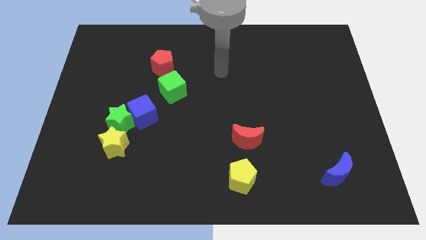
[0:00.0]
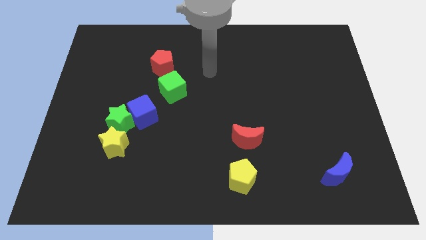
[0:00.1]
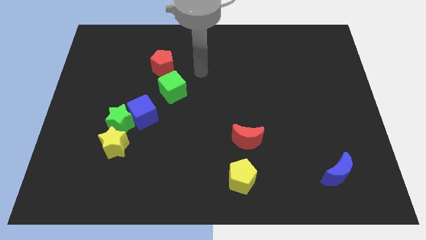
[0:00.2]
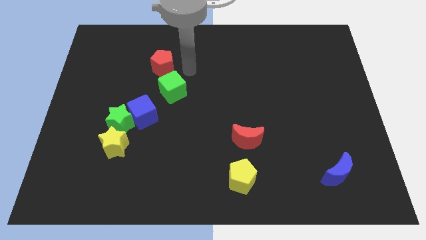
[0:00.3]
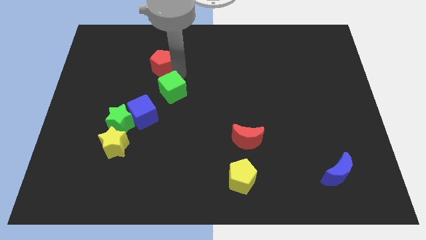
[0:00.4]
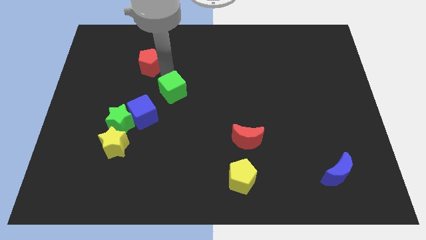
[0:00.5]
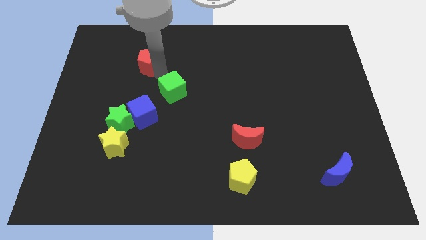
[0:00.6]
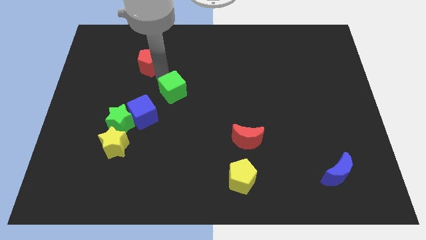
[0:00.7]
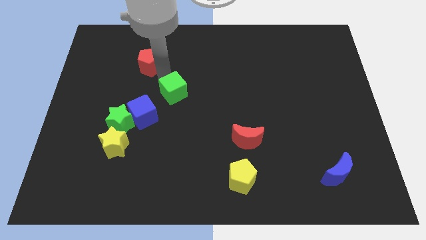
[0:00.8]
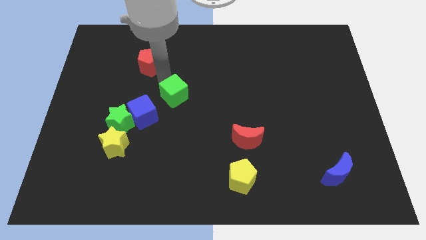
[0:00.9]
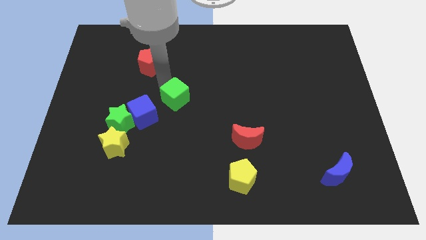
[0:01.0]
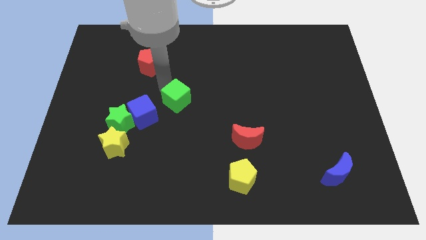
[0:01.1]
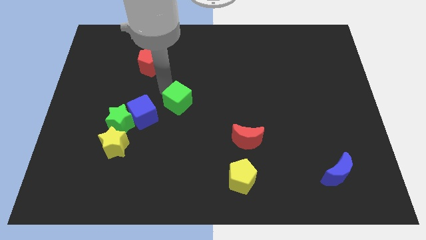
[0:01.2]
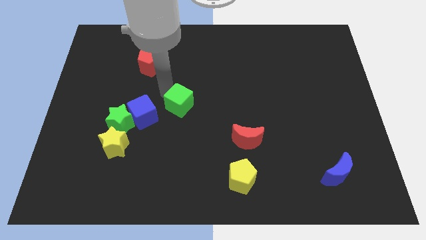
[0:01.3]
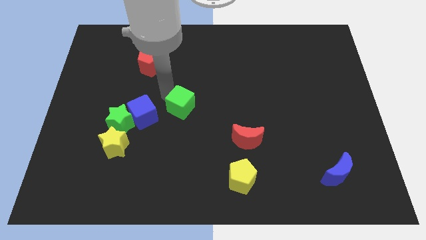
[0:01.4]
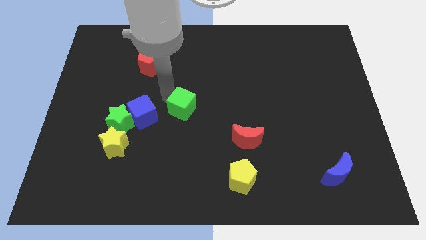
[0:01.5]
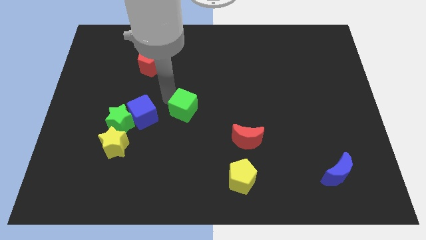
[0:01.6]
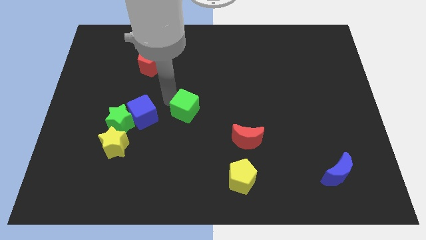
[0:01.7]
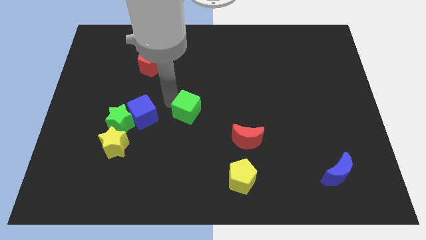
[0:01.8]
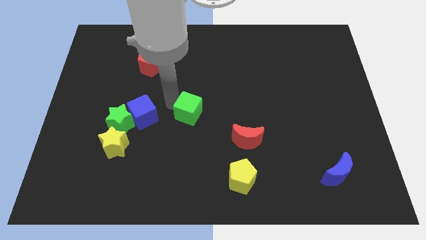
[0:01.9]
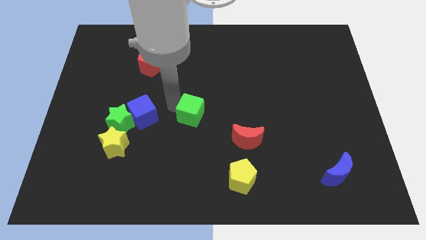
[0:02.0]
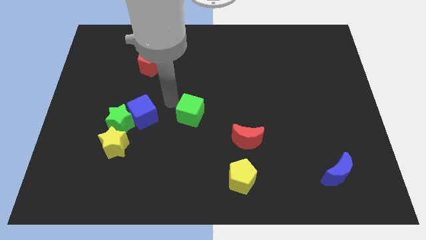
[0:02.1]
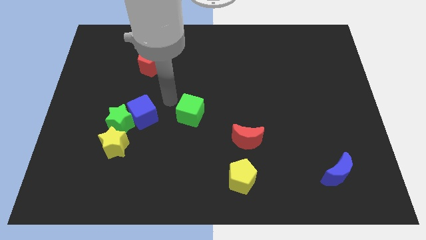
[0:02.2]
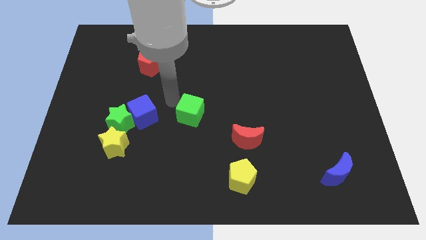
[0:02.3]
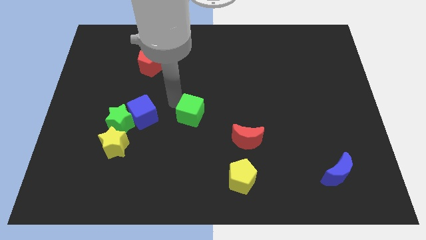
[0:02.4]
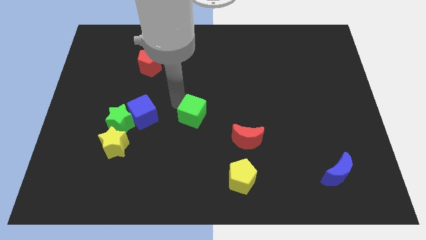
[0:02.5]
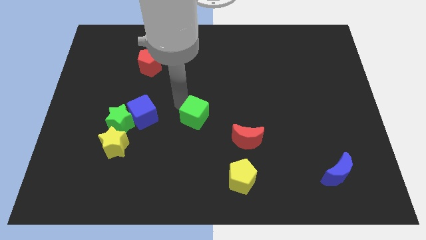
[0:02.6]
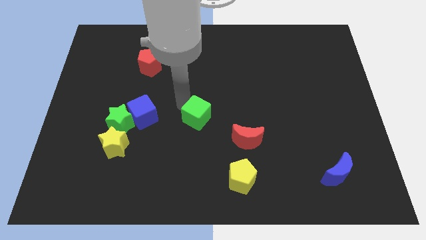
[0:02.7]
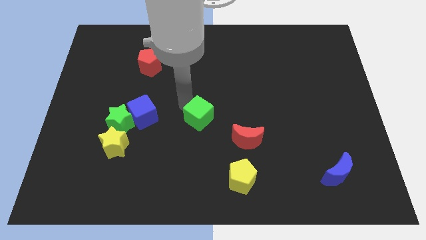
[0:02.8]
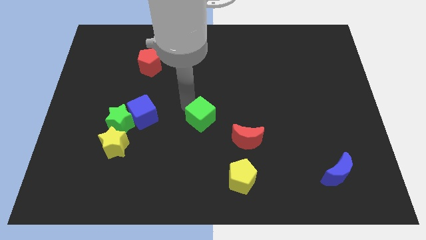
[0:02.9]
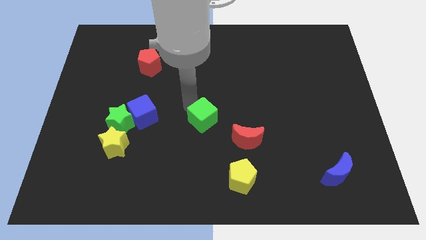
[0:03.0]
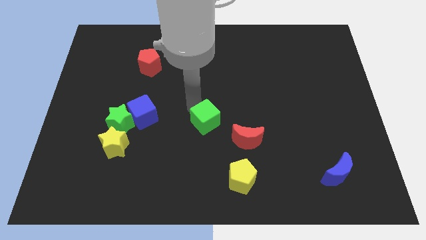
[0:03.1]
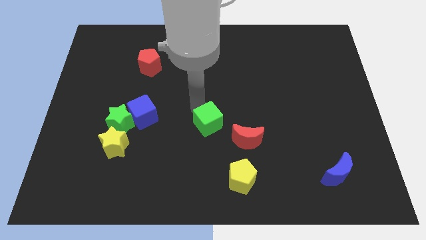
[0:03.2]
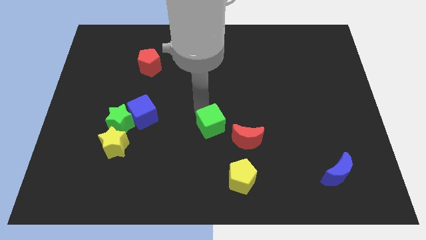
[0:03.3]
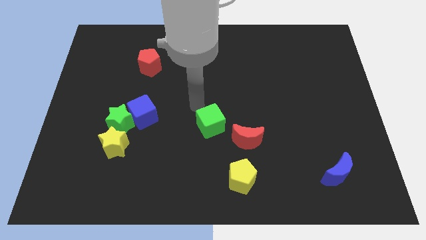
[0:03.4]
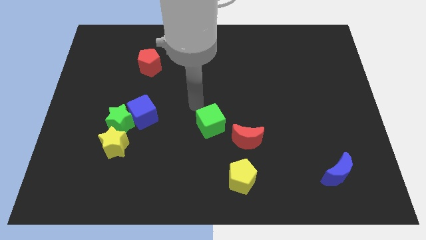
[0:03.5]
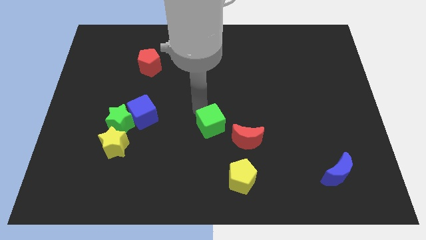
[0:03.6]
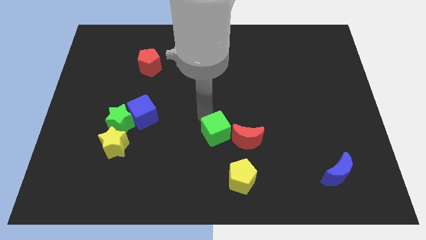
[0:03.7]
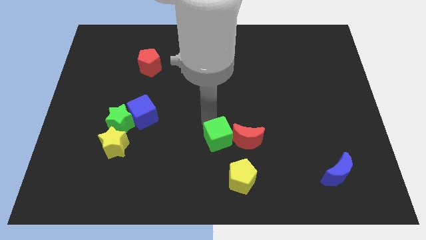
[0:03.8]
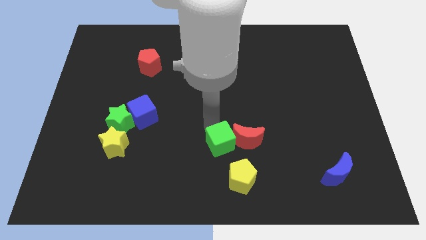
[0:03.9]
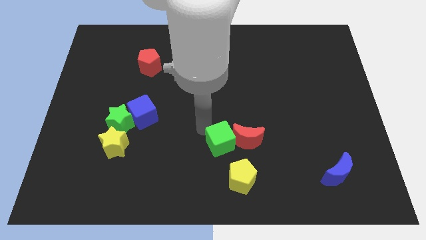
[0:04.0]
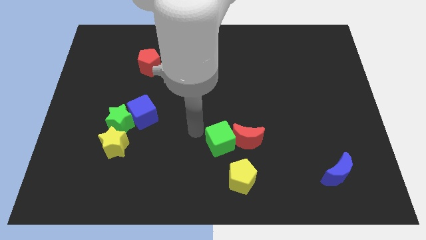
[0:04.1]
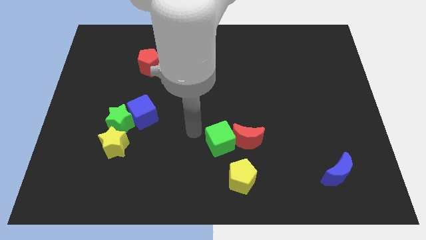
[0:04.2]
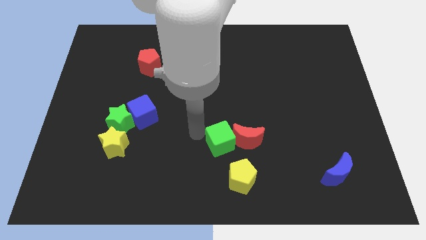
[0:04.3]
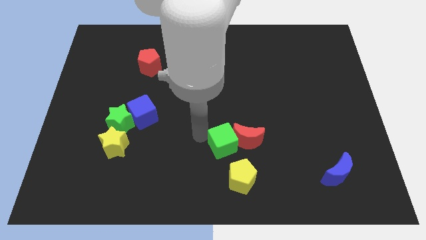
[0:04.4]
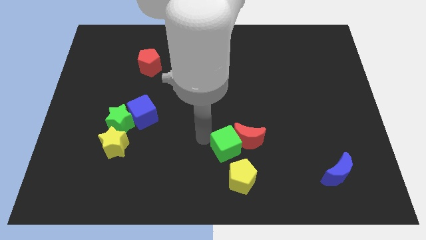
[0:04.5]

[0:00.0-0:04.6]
slide the green cube down and then right

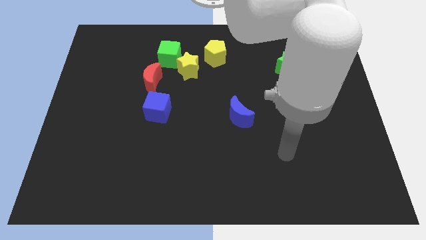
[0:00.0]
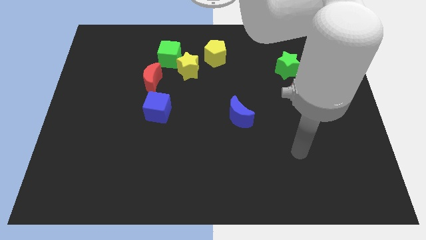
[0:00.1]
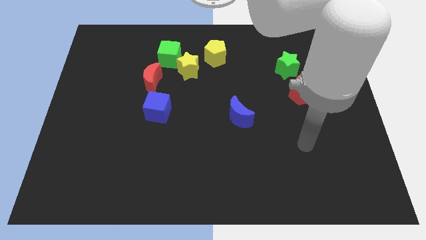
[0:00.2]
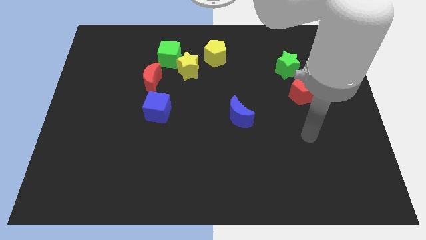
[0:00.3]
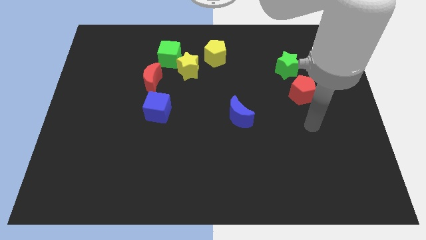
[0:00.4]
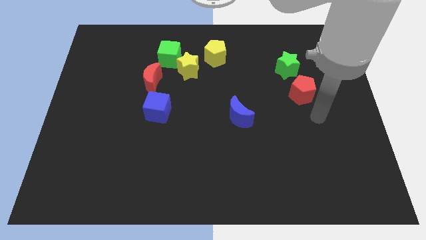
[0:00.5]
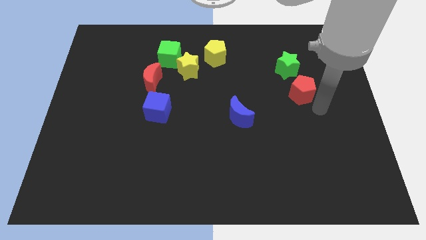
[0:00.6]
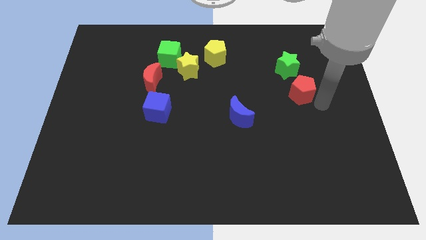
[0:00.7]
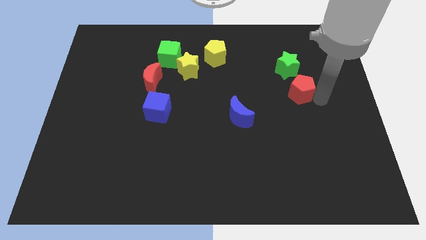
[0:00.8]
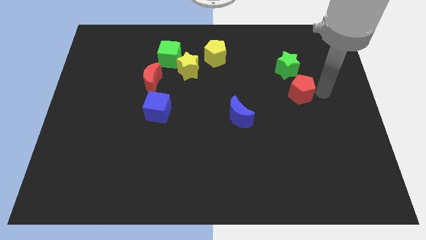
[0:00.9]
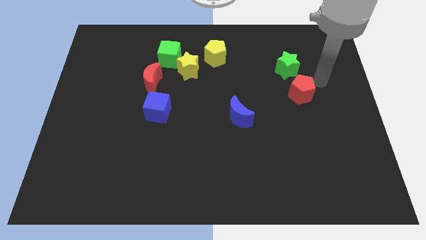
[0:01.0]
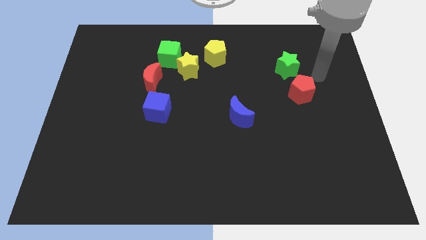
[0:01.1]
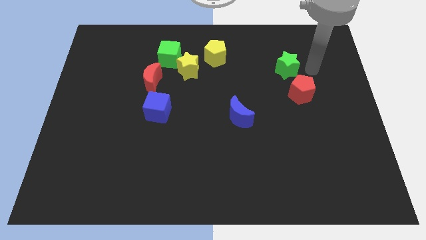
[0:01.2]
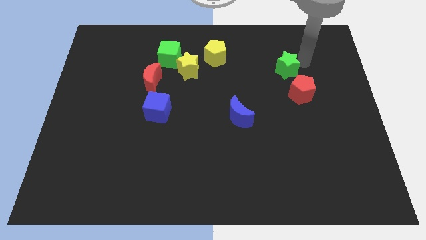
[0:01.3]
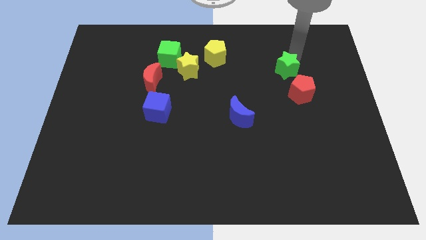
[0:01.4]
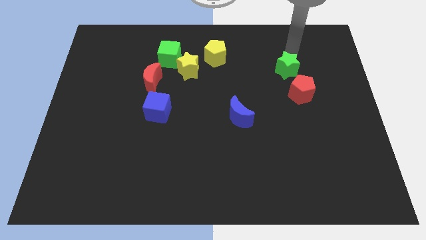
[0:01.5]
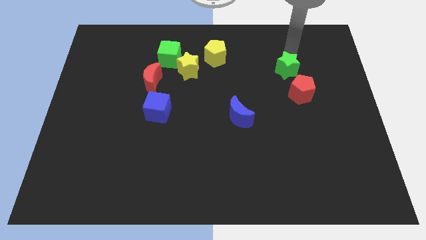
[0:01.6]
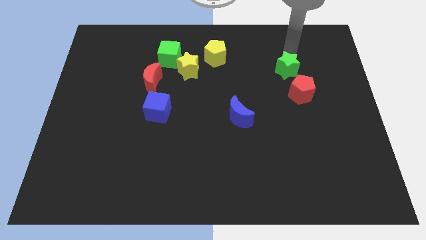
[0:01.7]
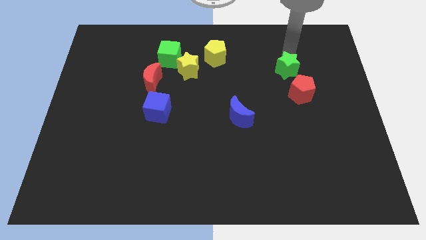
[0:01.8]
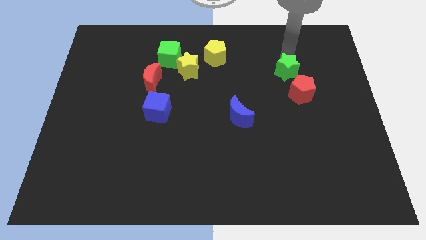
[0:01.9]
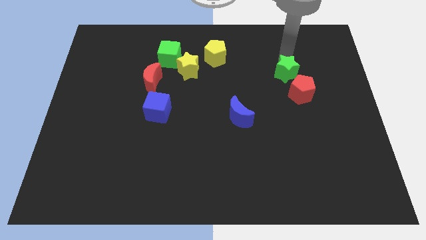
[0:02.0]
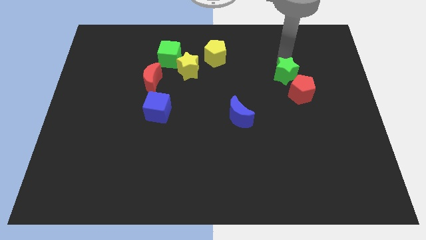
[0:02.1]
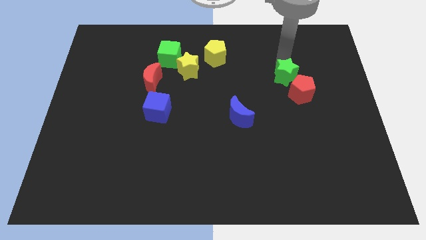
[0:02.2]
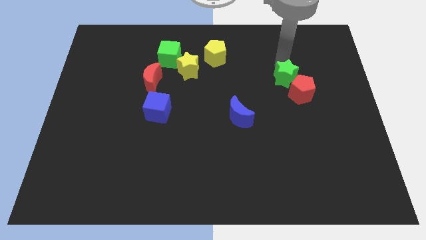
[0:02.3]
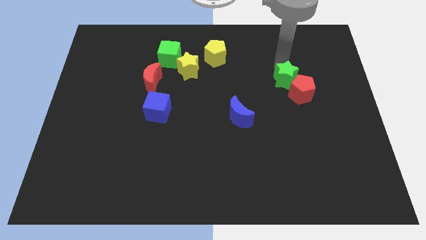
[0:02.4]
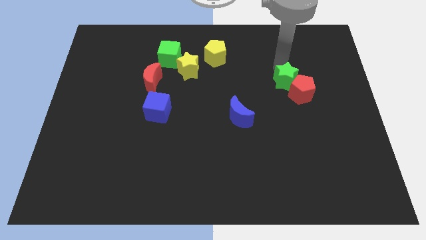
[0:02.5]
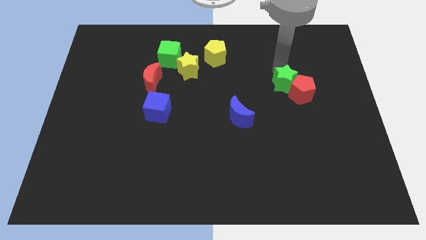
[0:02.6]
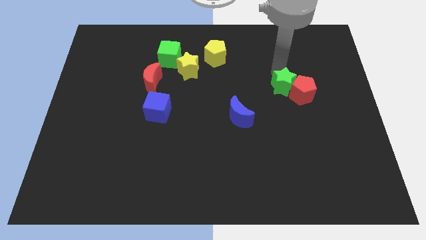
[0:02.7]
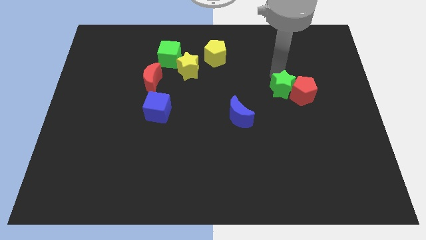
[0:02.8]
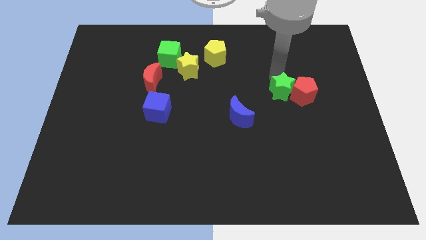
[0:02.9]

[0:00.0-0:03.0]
move the green star slightly downwards

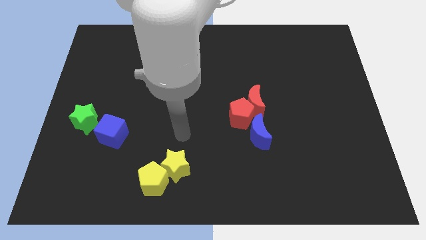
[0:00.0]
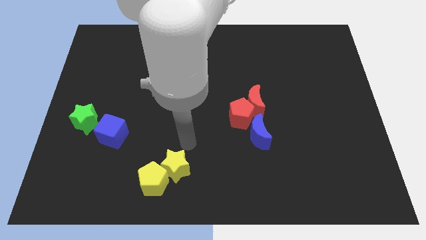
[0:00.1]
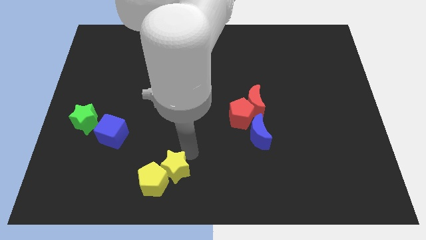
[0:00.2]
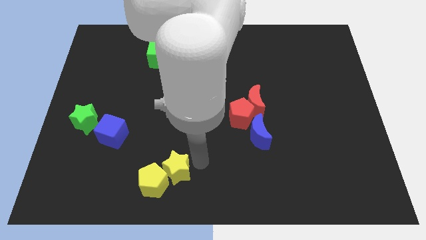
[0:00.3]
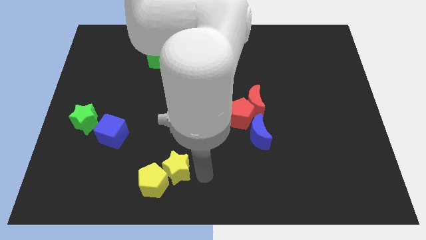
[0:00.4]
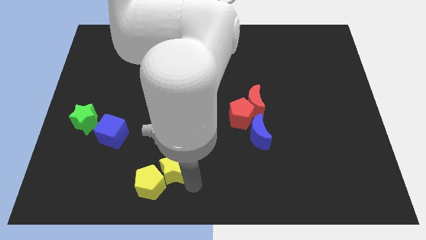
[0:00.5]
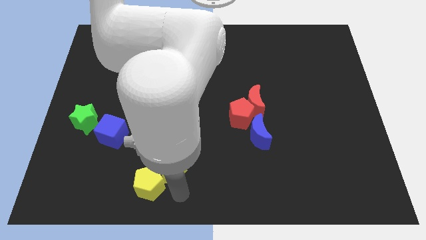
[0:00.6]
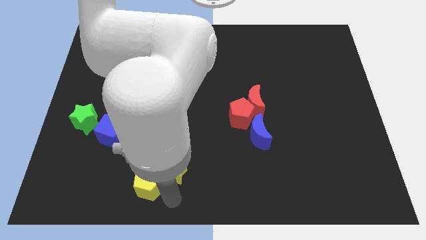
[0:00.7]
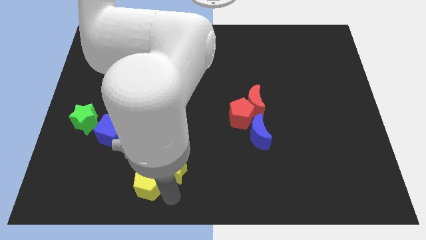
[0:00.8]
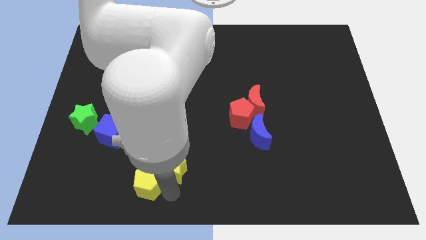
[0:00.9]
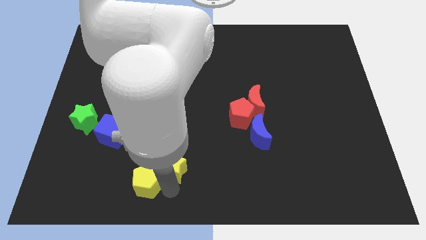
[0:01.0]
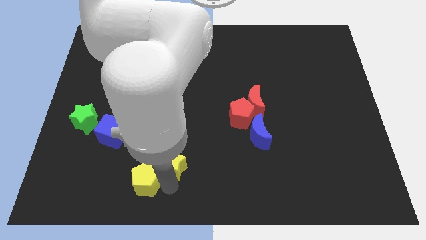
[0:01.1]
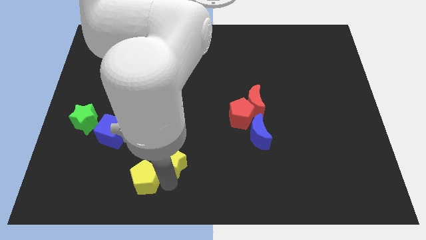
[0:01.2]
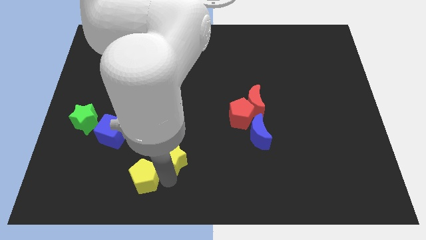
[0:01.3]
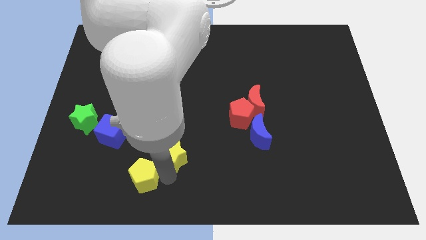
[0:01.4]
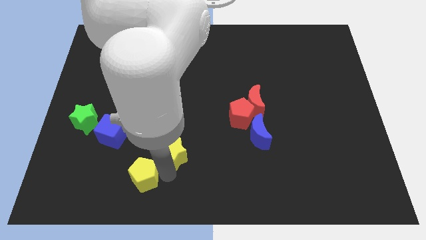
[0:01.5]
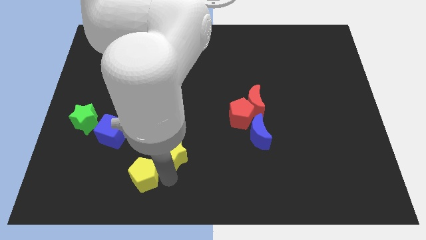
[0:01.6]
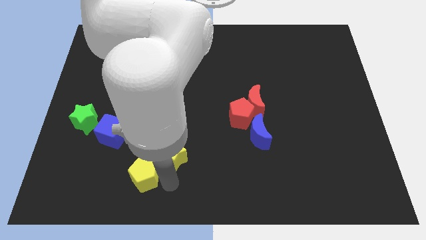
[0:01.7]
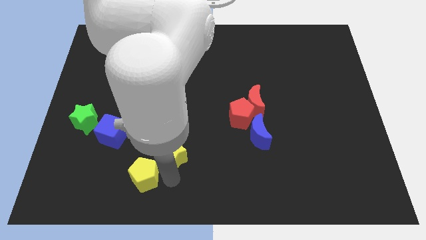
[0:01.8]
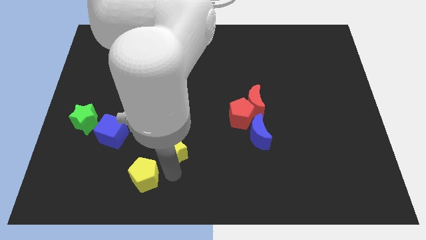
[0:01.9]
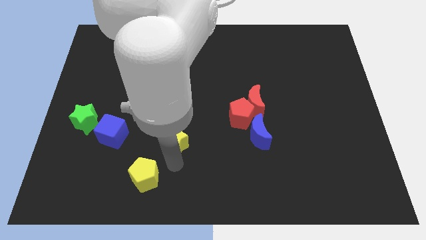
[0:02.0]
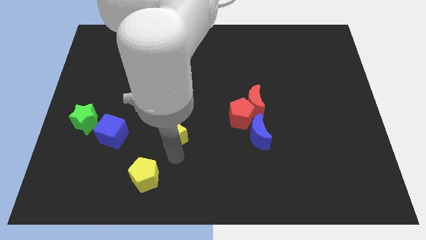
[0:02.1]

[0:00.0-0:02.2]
push the yellow star up slightly
